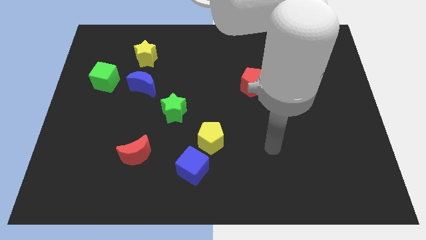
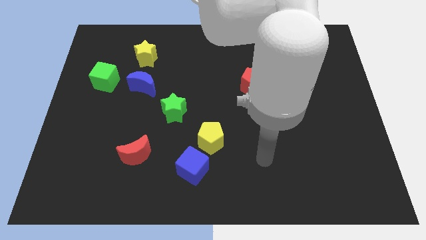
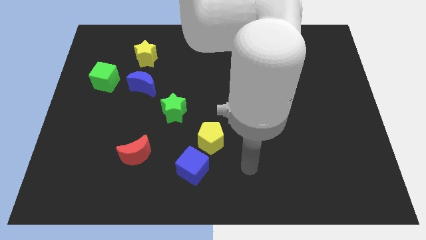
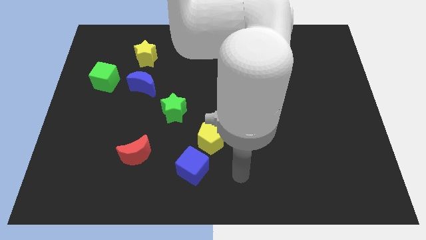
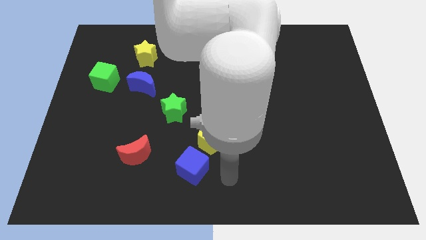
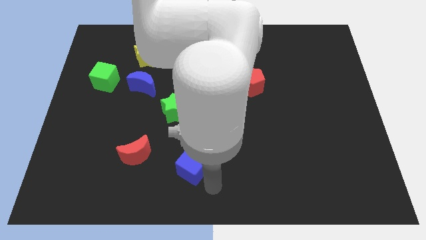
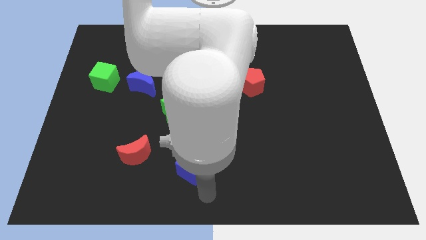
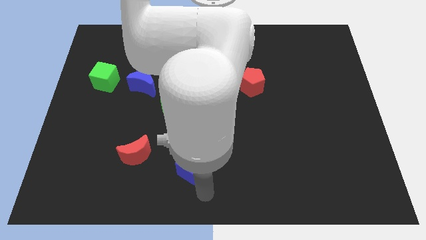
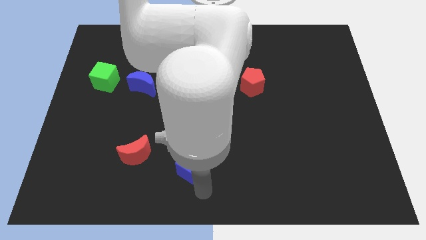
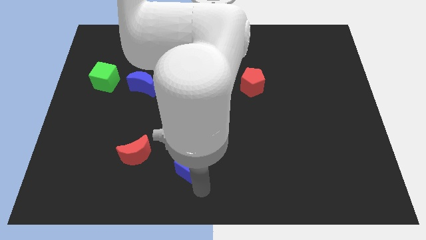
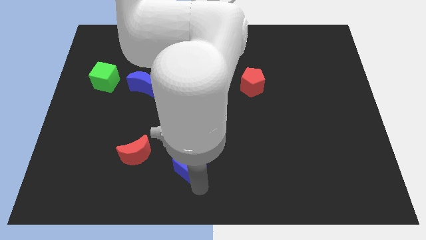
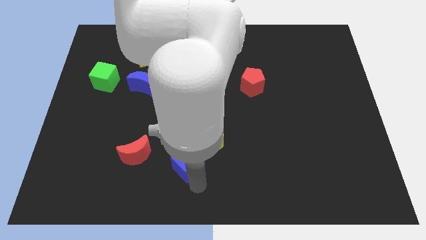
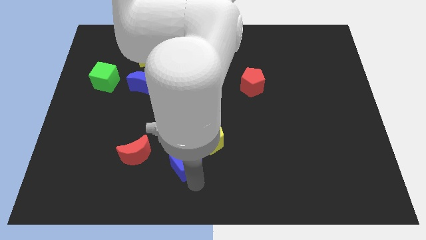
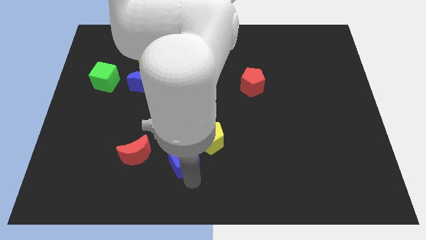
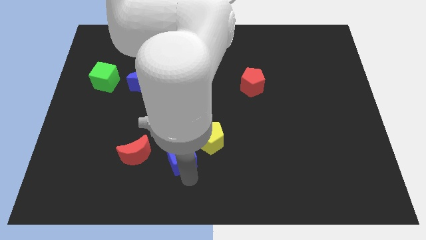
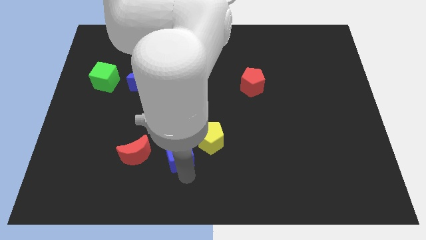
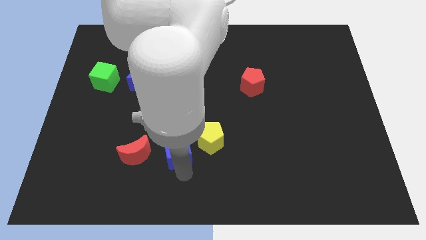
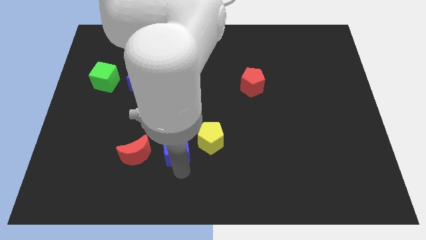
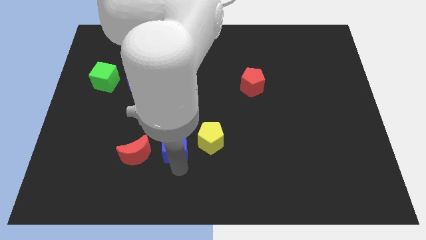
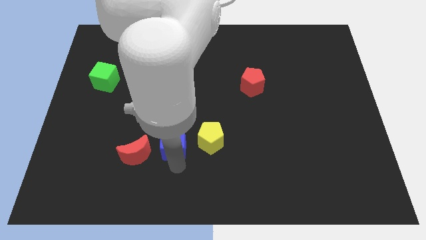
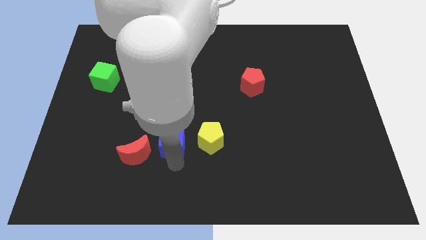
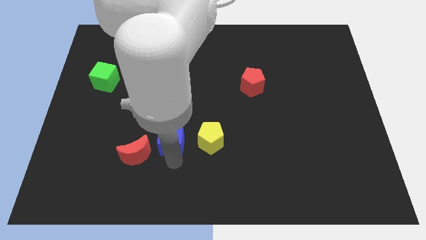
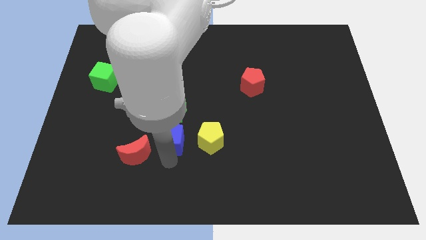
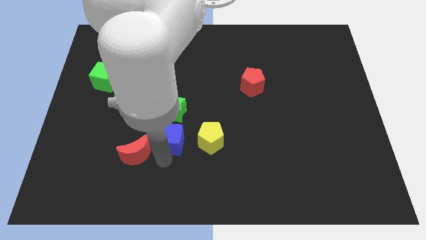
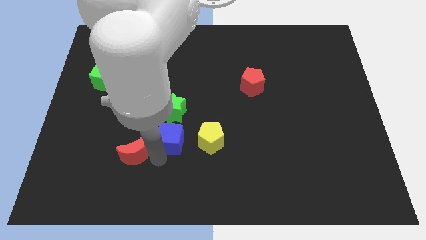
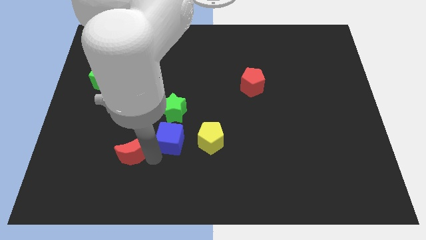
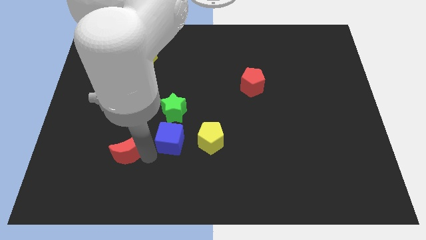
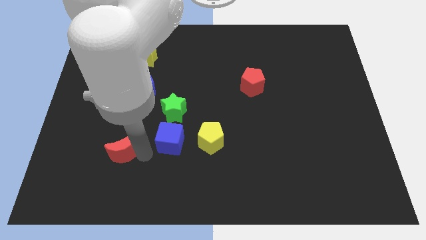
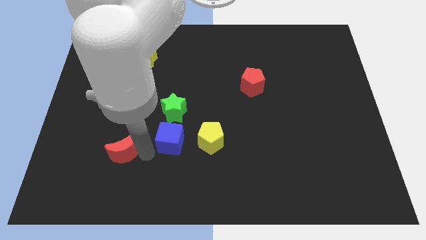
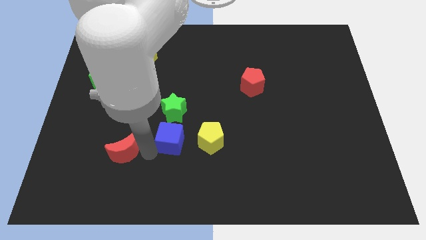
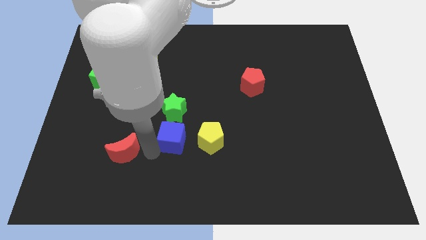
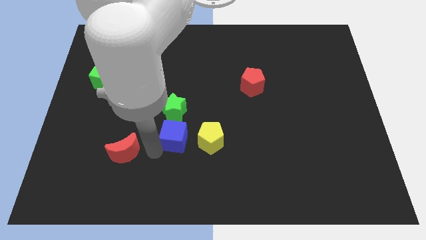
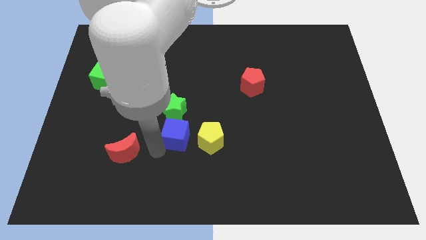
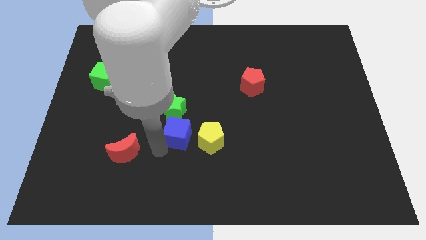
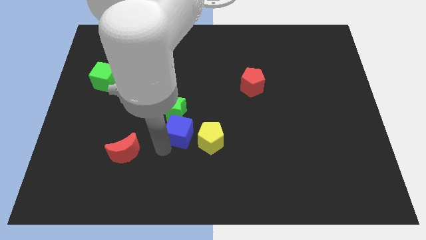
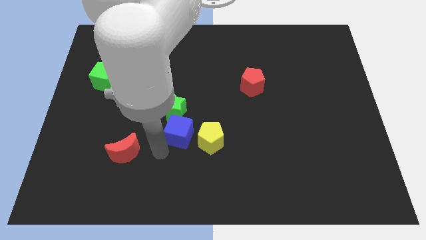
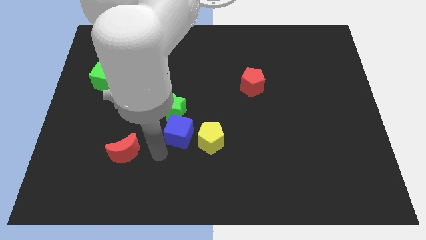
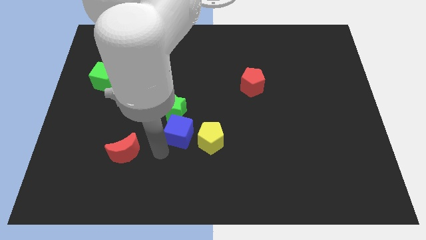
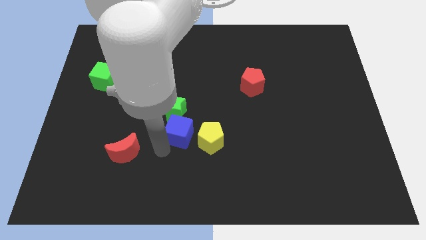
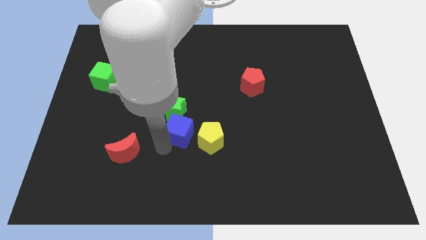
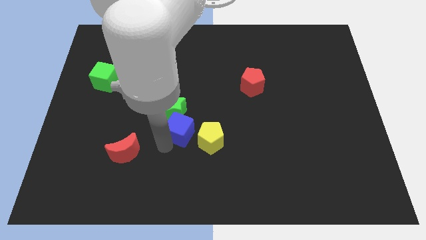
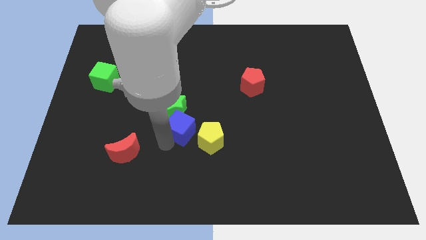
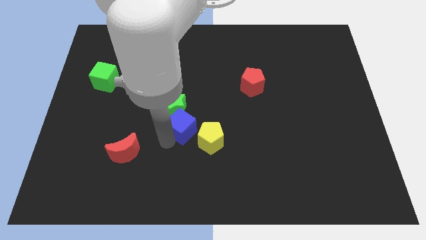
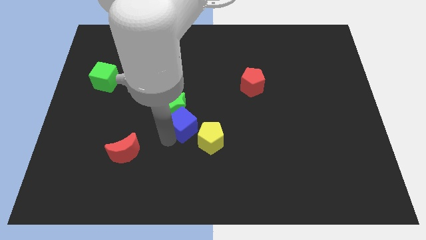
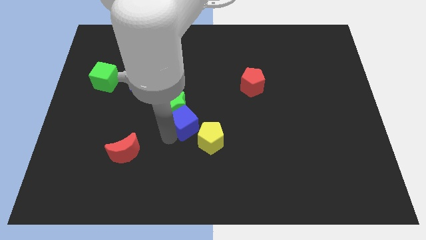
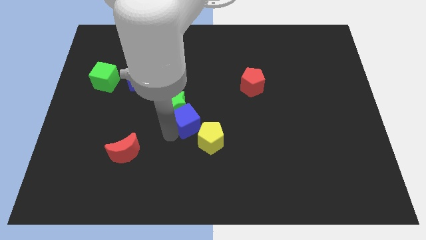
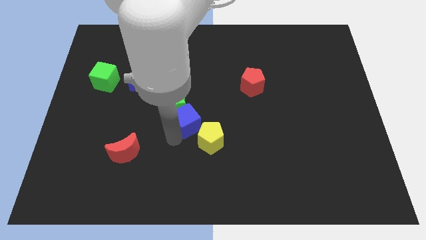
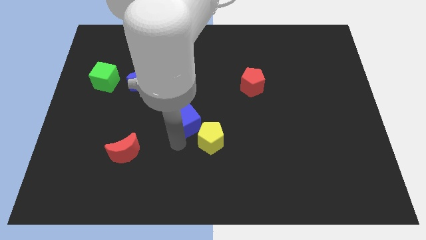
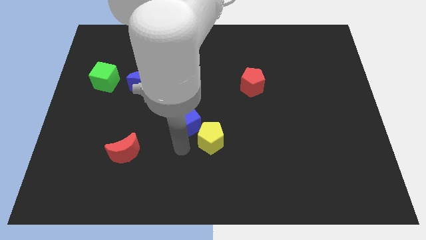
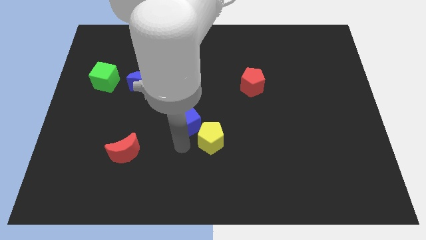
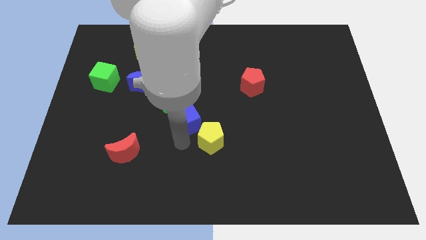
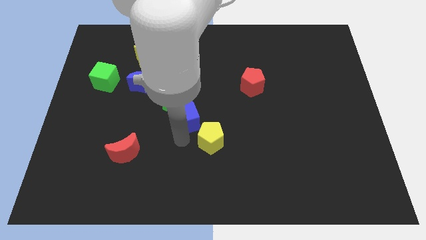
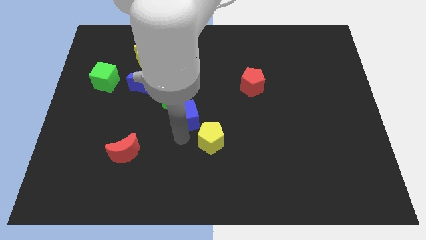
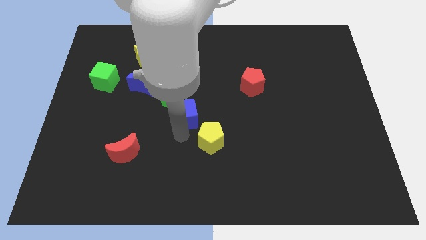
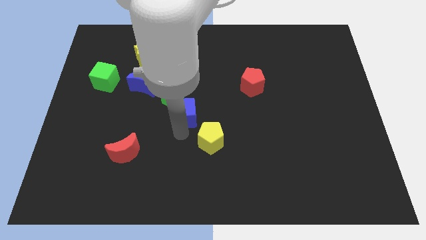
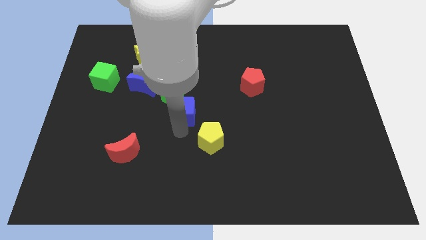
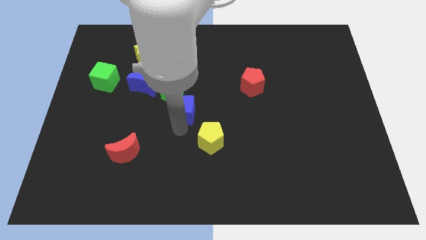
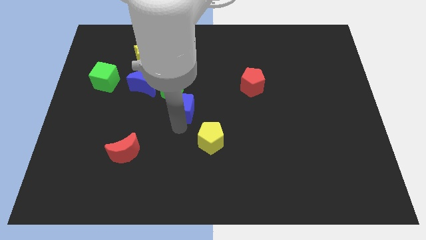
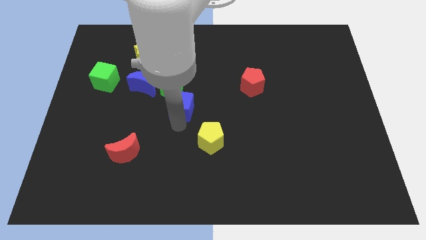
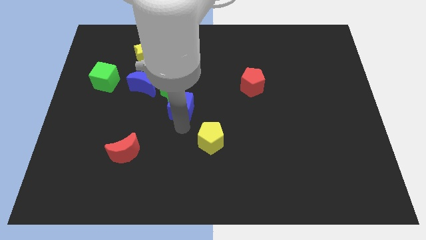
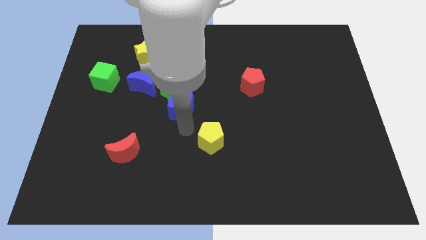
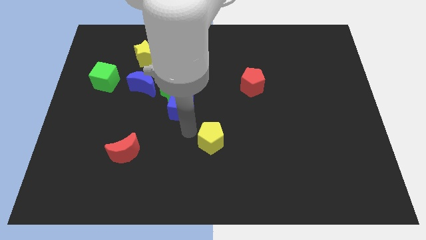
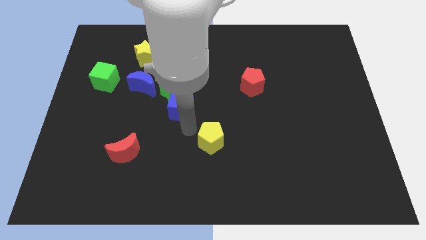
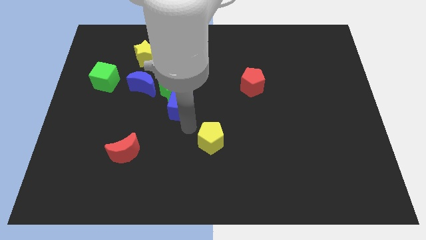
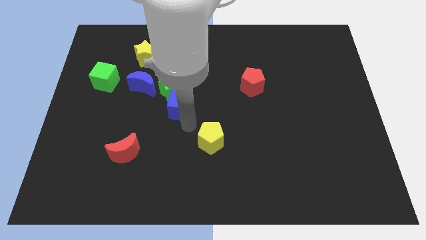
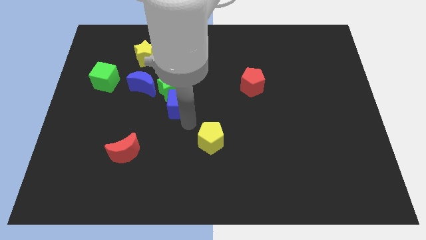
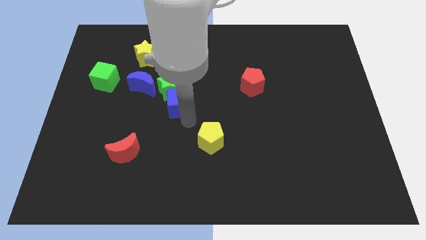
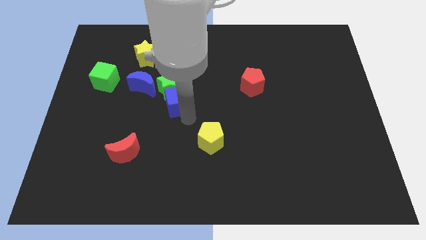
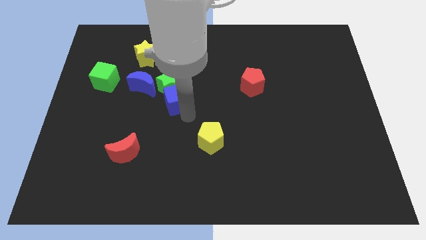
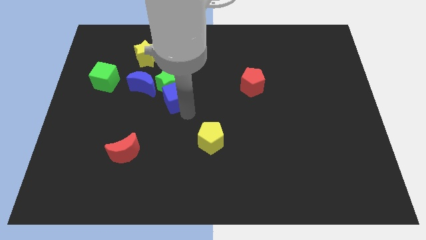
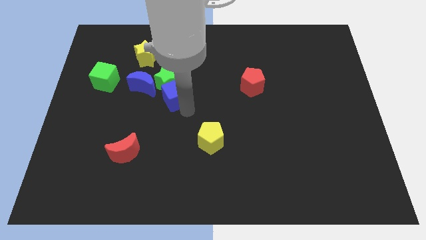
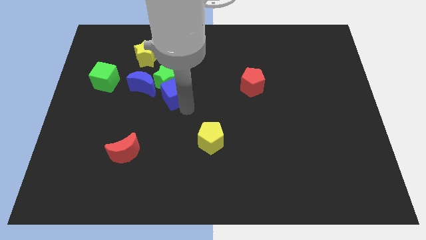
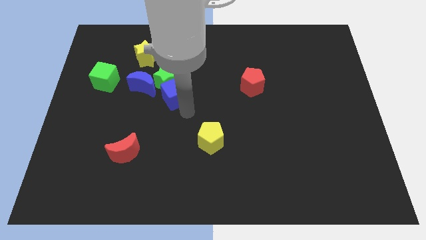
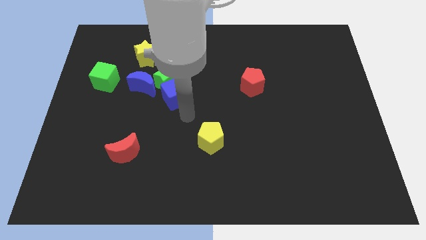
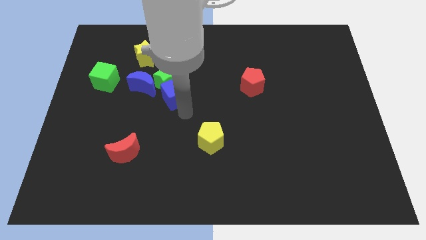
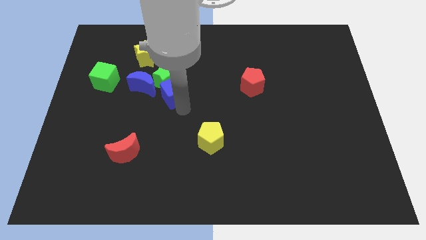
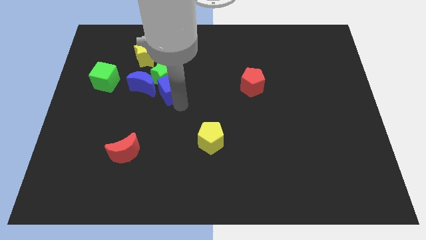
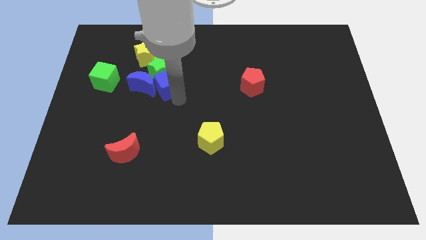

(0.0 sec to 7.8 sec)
move the blue cube to the right side of the green cube
